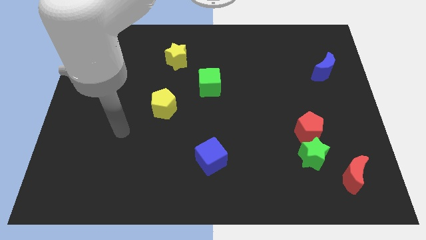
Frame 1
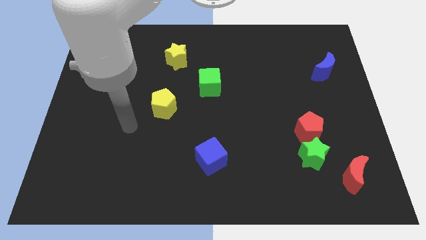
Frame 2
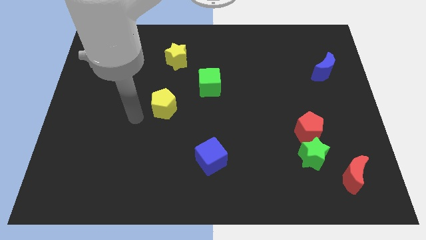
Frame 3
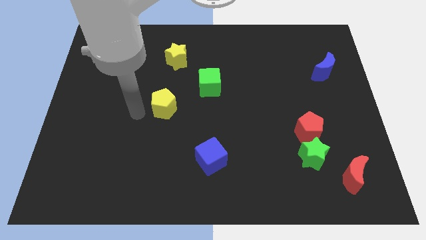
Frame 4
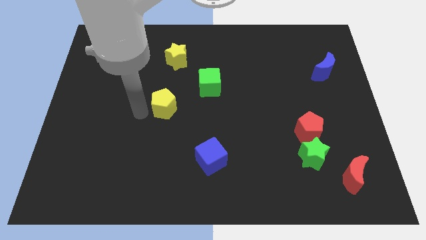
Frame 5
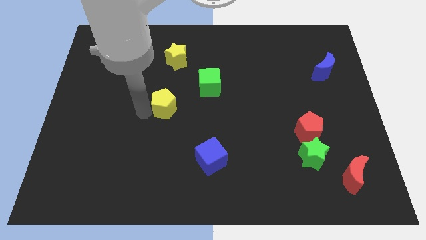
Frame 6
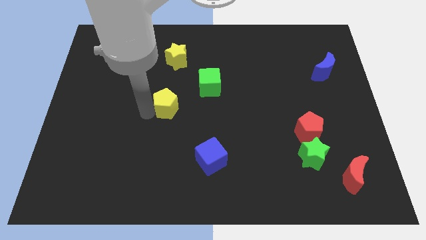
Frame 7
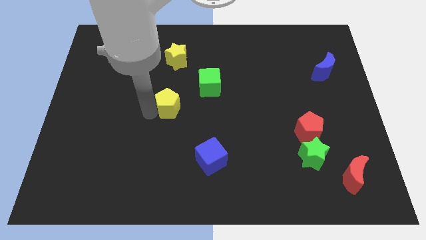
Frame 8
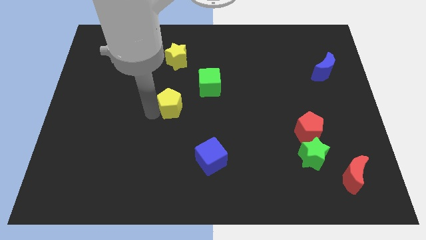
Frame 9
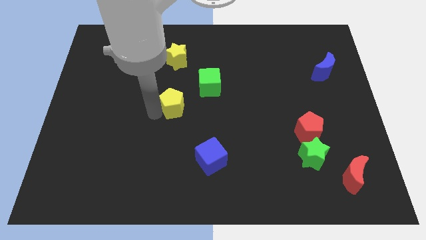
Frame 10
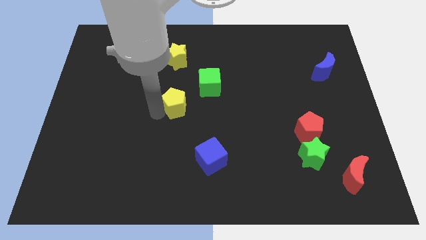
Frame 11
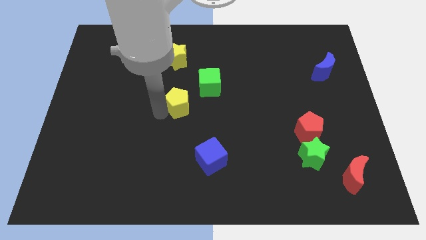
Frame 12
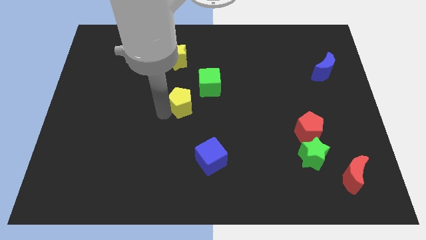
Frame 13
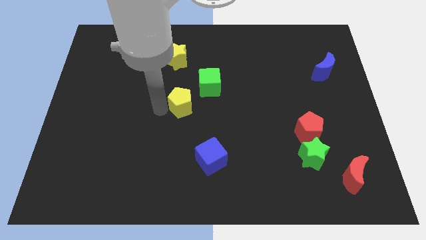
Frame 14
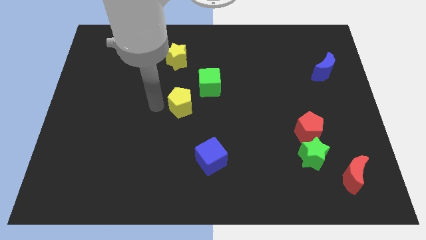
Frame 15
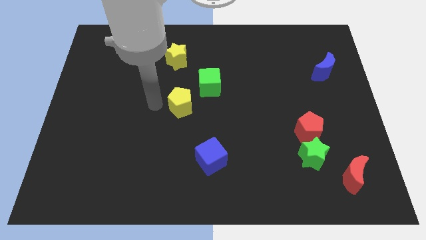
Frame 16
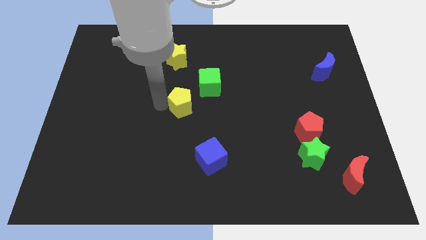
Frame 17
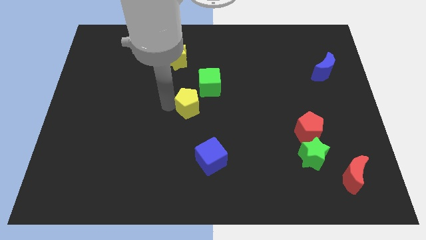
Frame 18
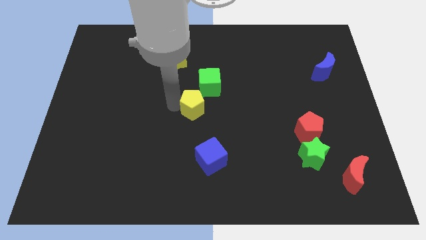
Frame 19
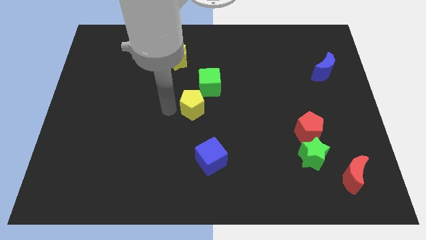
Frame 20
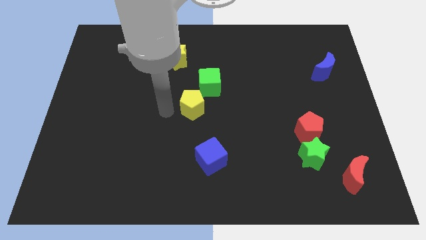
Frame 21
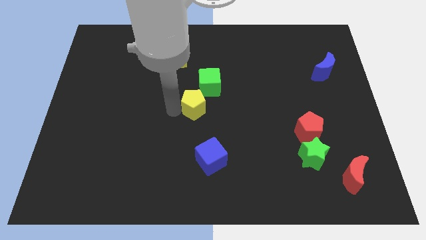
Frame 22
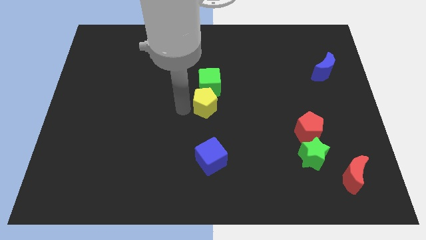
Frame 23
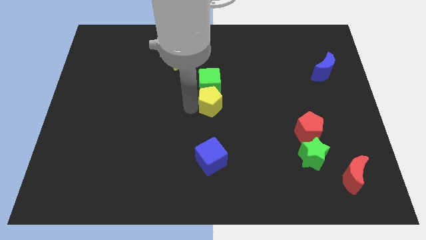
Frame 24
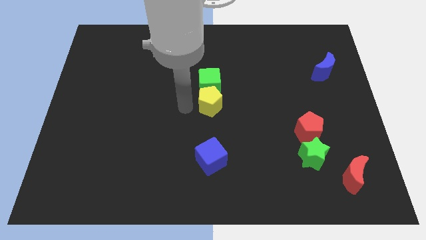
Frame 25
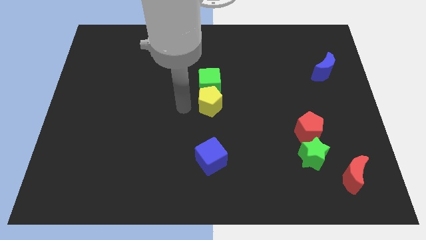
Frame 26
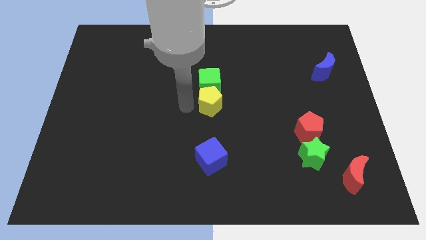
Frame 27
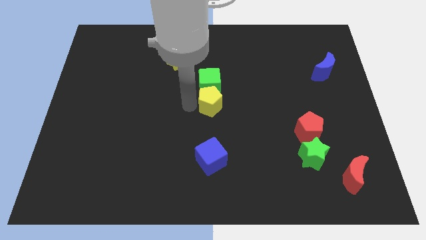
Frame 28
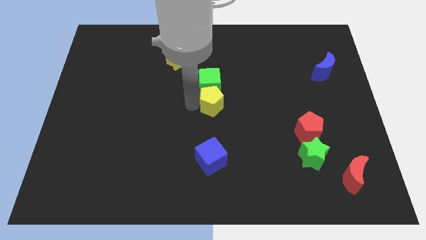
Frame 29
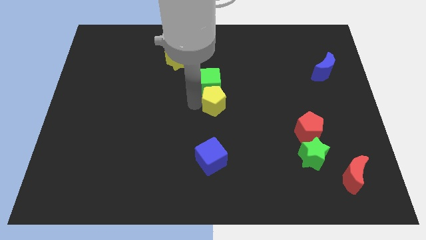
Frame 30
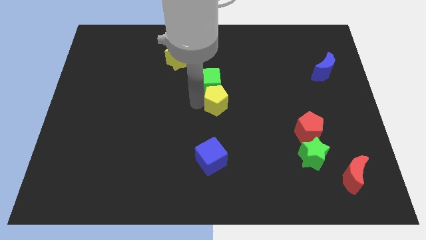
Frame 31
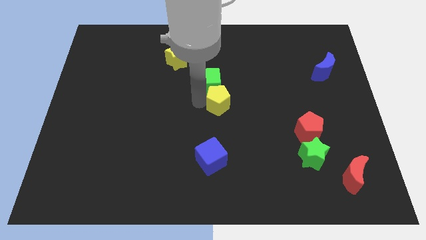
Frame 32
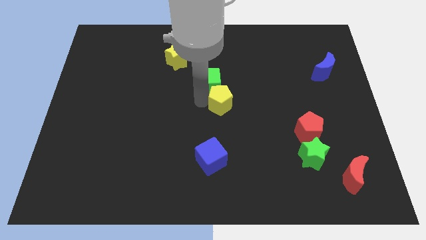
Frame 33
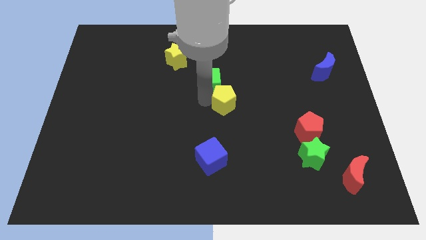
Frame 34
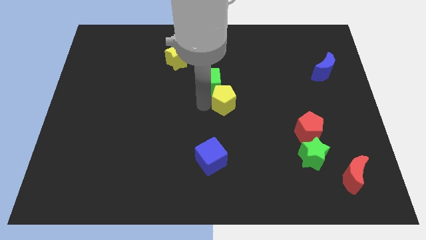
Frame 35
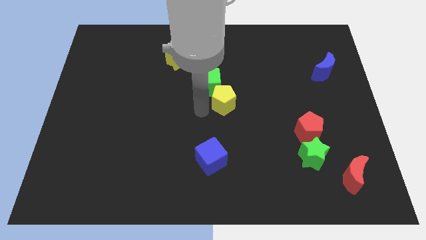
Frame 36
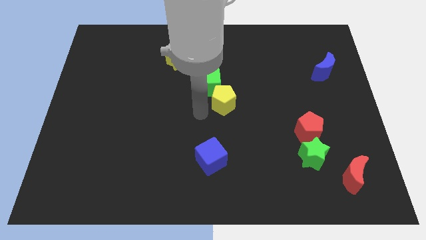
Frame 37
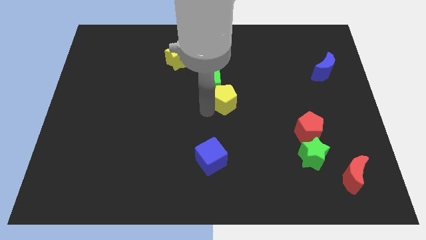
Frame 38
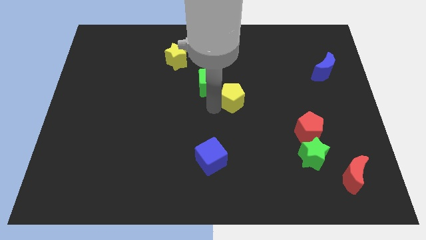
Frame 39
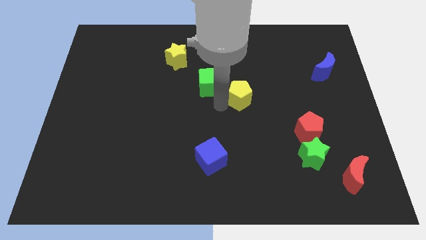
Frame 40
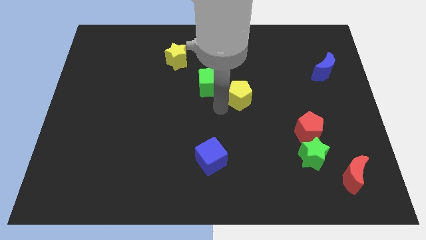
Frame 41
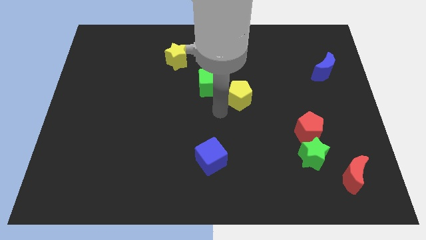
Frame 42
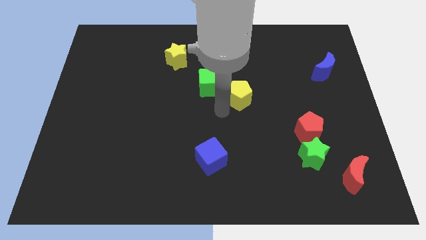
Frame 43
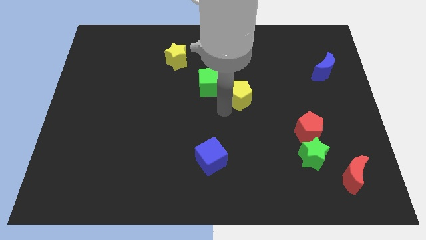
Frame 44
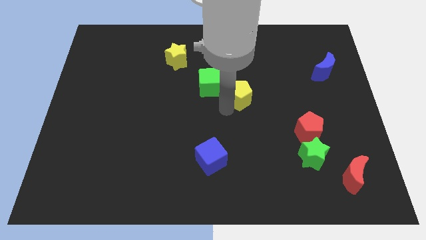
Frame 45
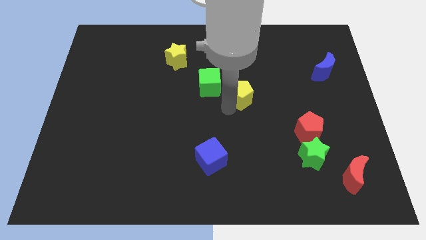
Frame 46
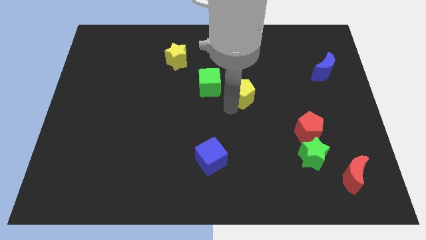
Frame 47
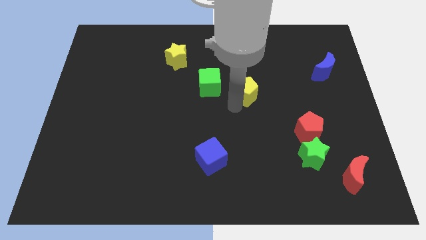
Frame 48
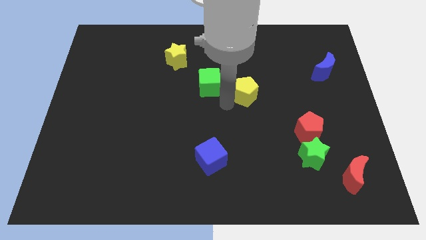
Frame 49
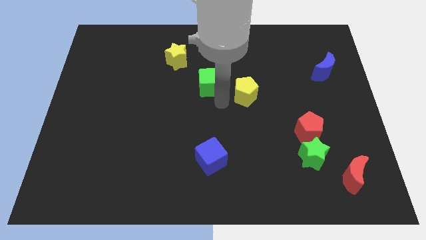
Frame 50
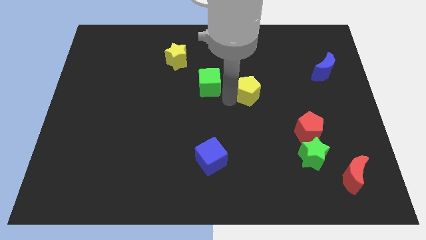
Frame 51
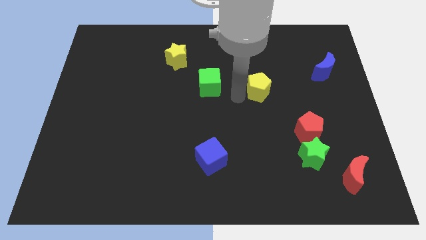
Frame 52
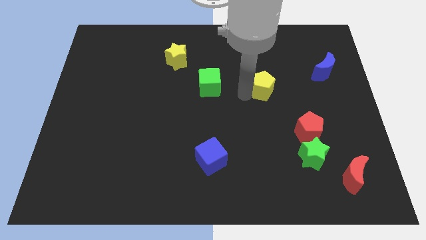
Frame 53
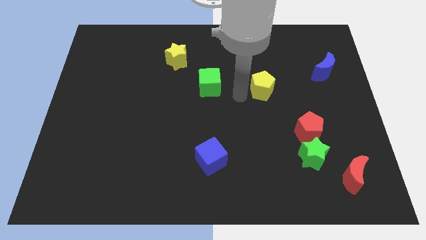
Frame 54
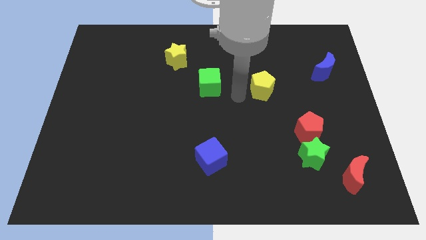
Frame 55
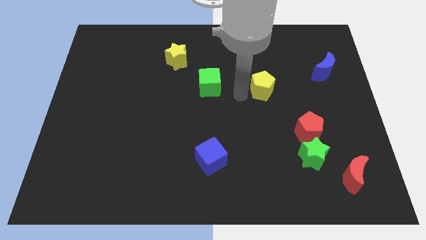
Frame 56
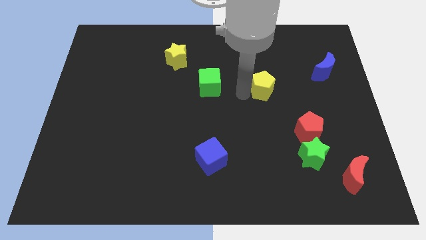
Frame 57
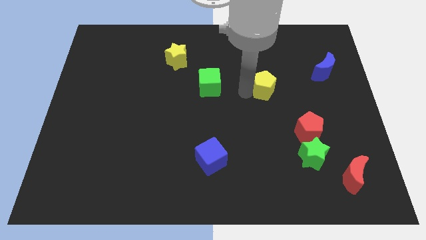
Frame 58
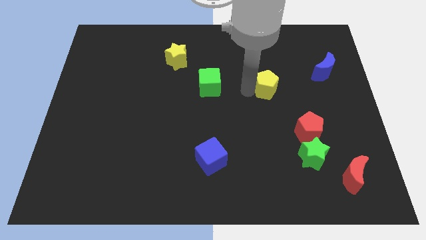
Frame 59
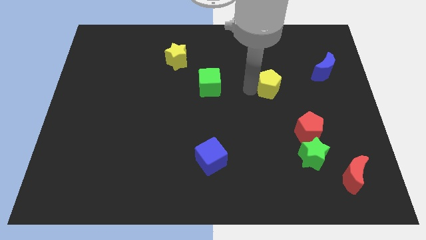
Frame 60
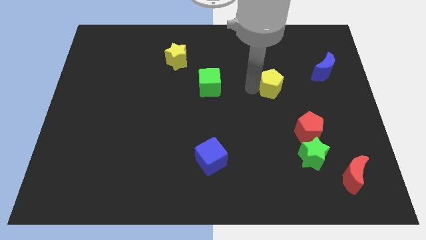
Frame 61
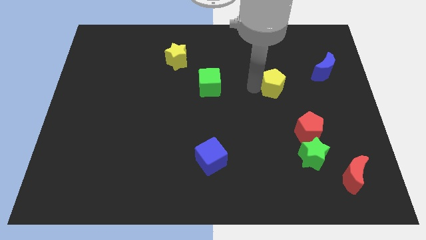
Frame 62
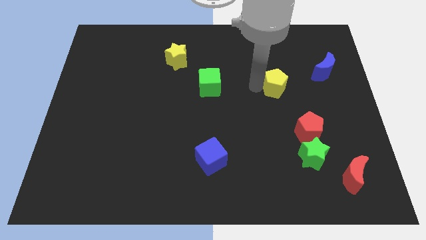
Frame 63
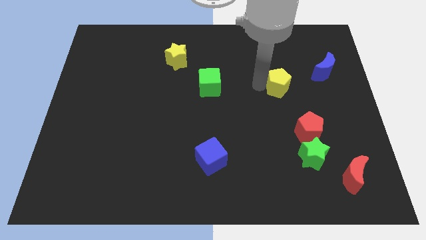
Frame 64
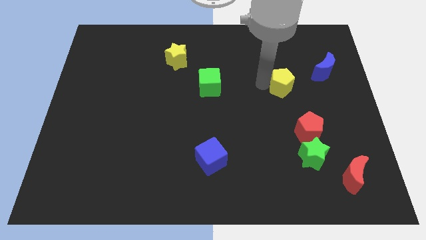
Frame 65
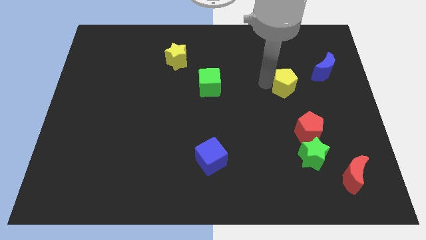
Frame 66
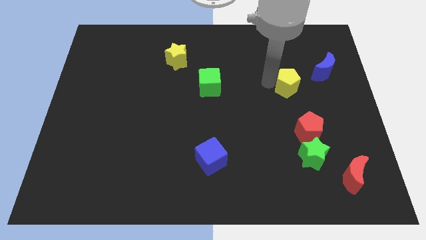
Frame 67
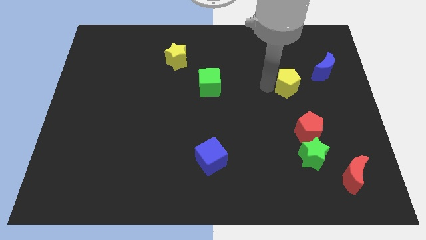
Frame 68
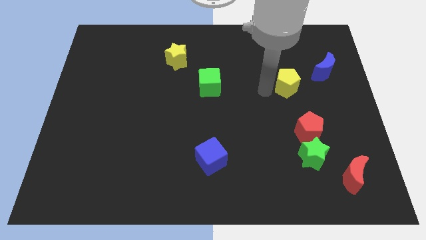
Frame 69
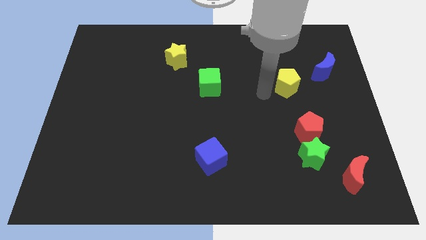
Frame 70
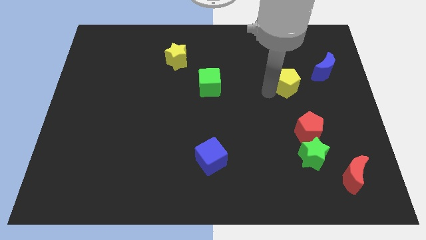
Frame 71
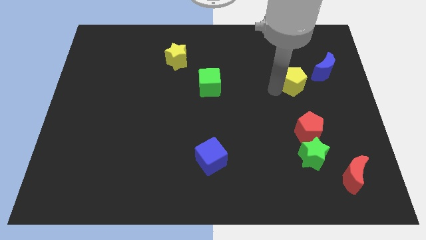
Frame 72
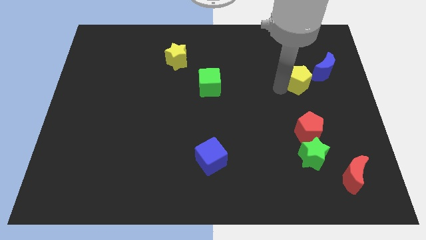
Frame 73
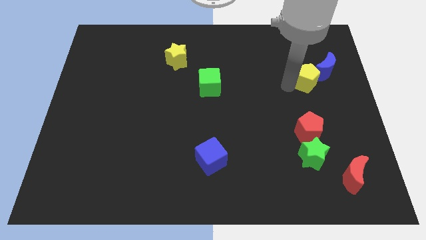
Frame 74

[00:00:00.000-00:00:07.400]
push the yellow pentagon to the blue moon
